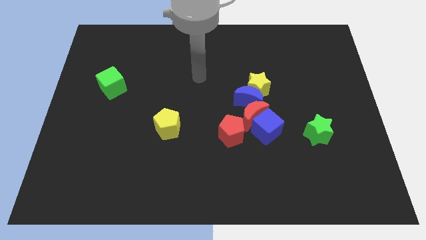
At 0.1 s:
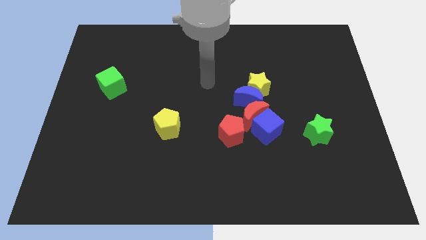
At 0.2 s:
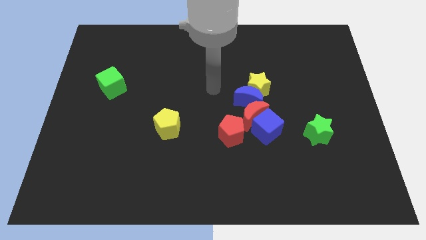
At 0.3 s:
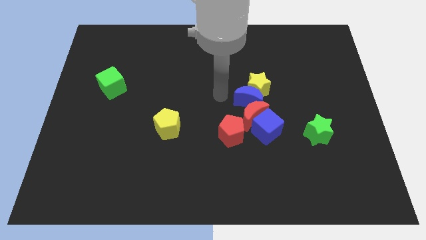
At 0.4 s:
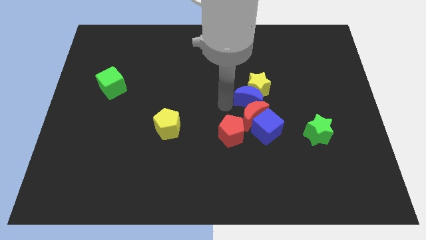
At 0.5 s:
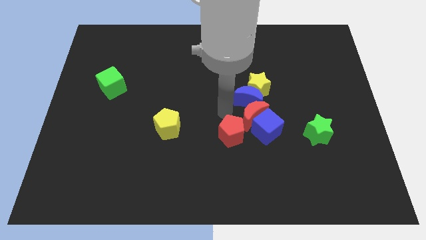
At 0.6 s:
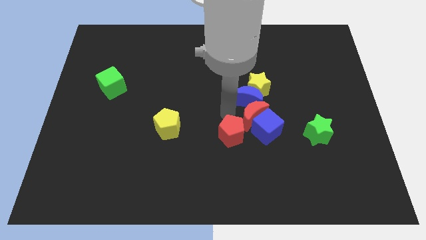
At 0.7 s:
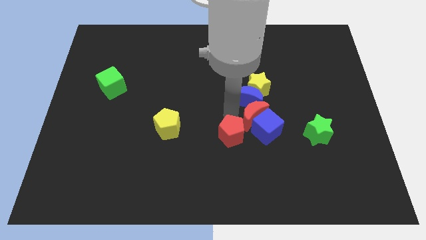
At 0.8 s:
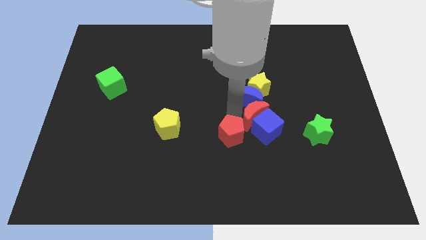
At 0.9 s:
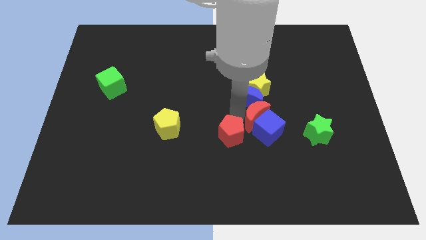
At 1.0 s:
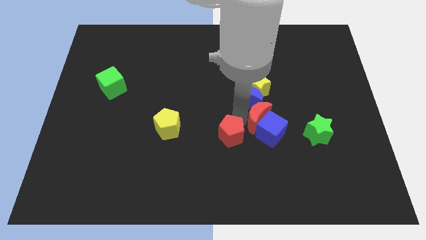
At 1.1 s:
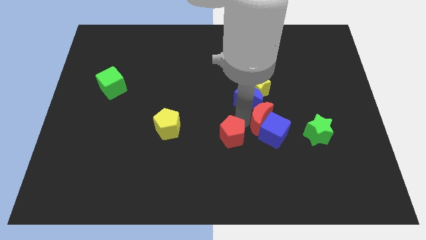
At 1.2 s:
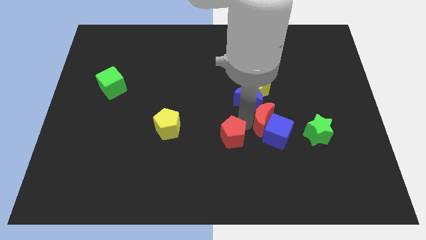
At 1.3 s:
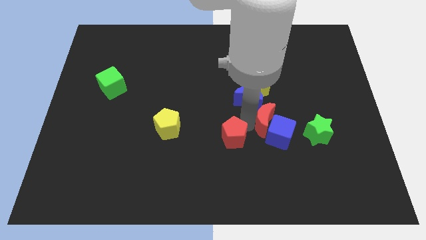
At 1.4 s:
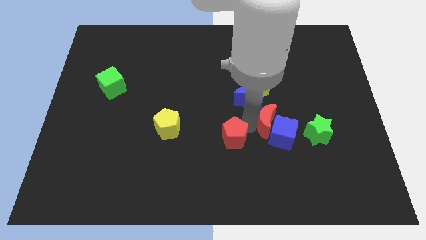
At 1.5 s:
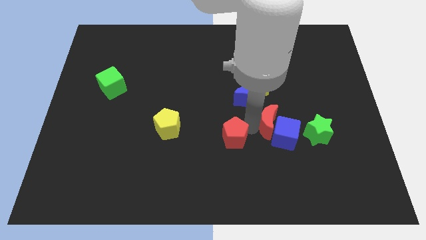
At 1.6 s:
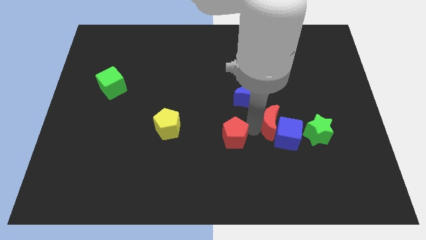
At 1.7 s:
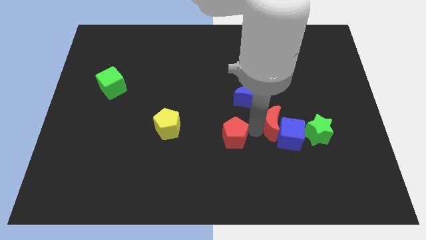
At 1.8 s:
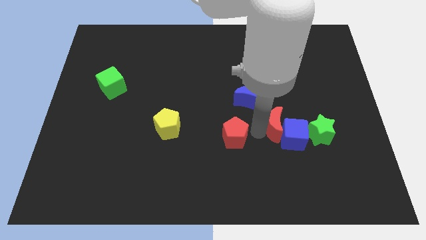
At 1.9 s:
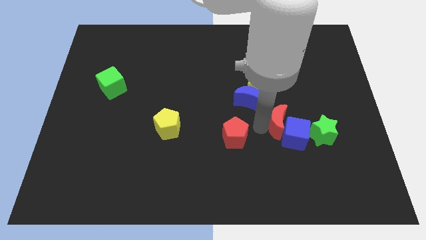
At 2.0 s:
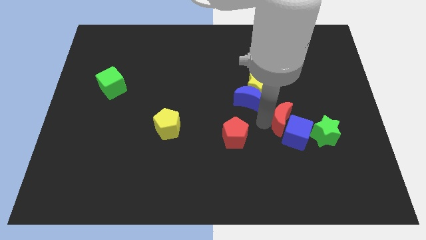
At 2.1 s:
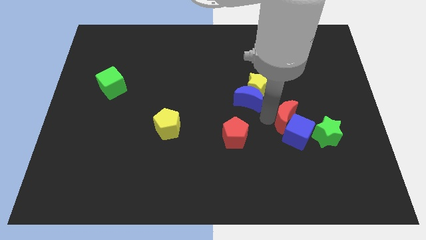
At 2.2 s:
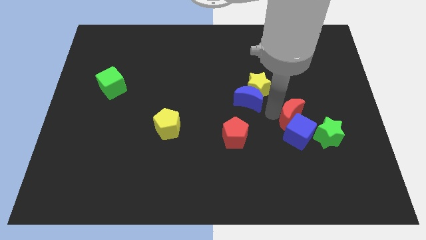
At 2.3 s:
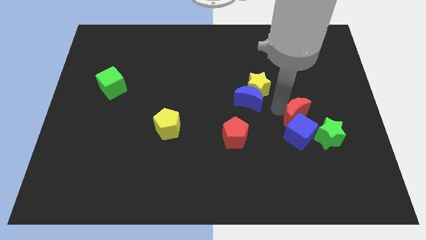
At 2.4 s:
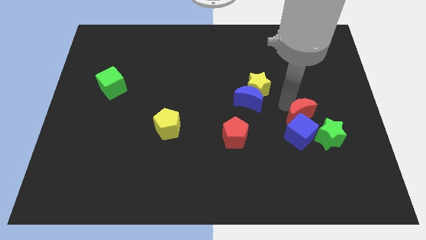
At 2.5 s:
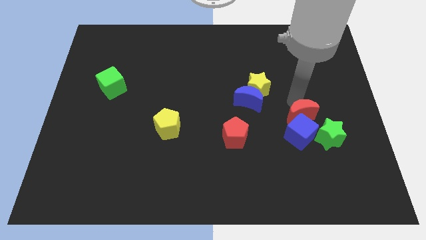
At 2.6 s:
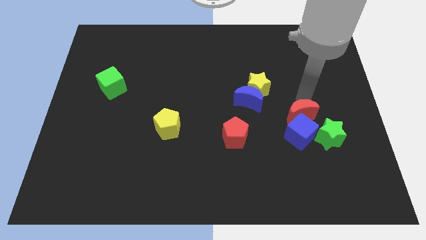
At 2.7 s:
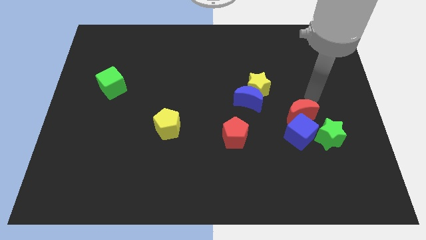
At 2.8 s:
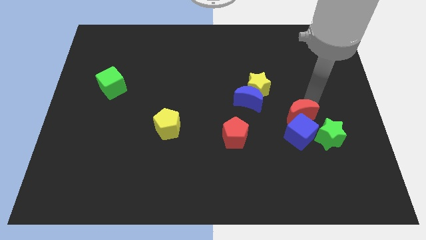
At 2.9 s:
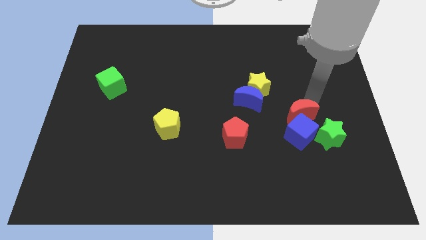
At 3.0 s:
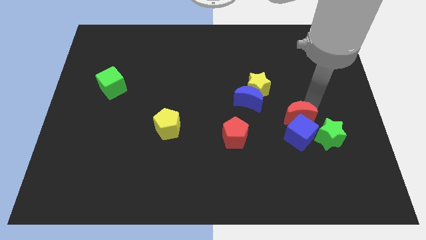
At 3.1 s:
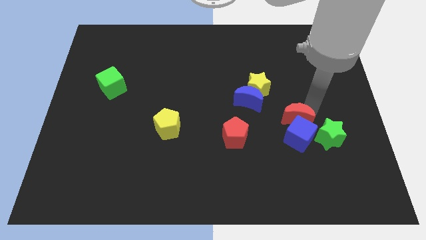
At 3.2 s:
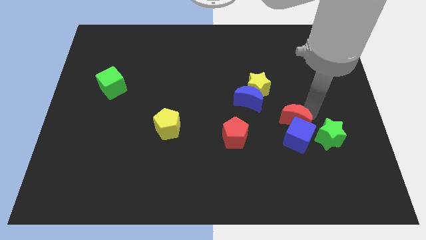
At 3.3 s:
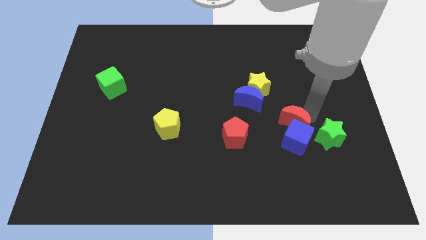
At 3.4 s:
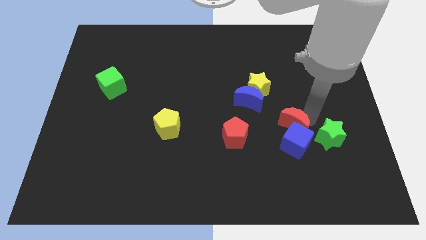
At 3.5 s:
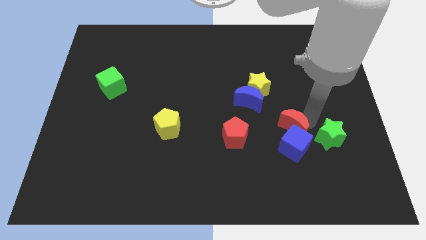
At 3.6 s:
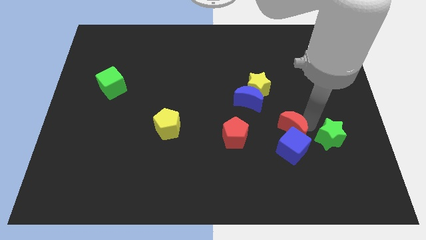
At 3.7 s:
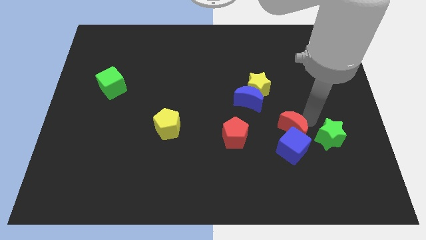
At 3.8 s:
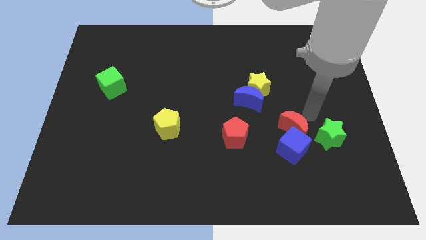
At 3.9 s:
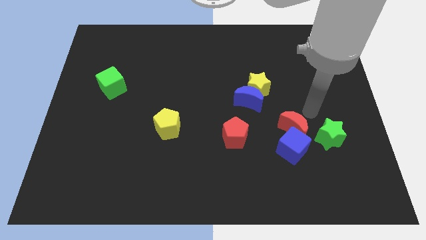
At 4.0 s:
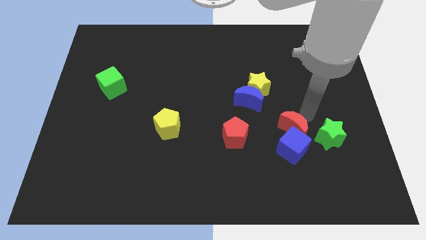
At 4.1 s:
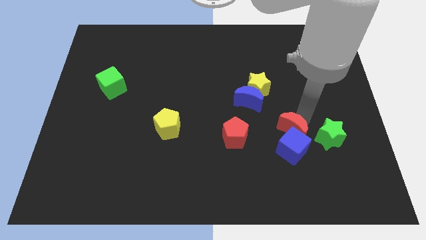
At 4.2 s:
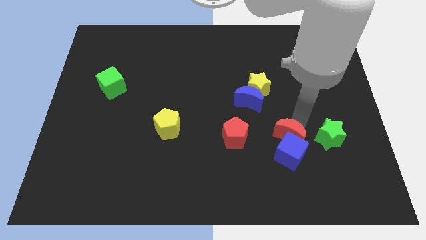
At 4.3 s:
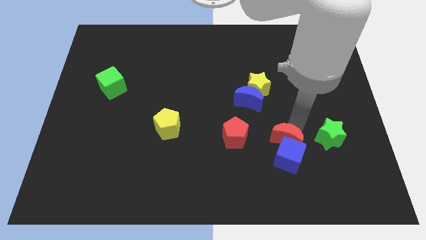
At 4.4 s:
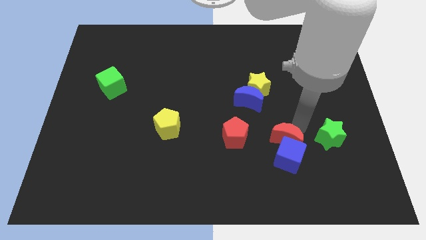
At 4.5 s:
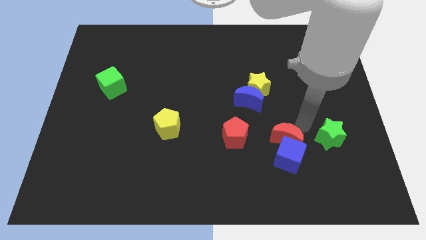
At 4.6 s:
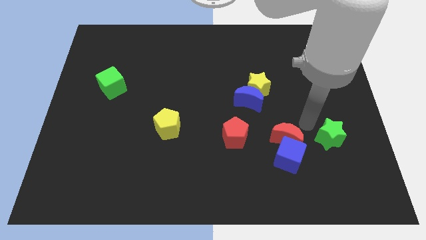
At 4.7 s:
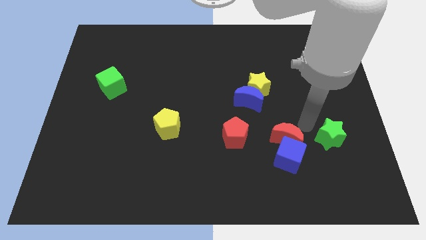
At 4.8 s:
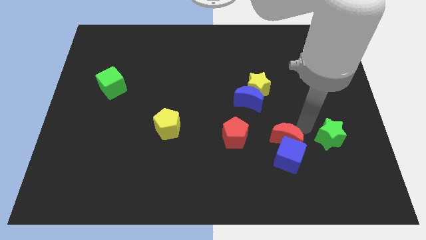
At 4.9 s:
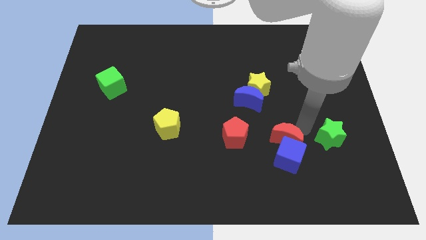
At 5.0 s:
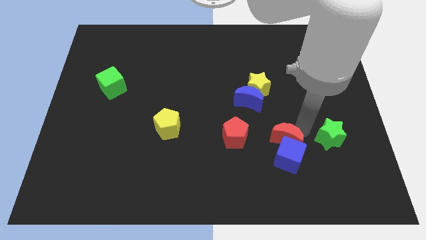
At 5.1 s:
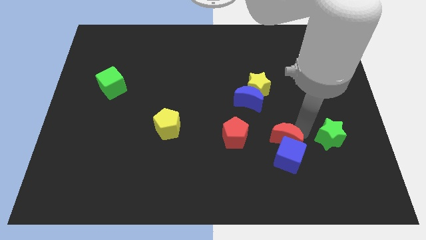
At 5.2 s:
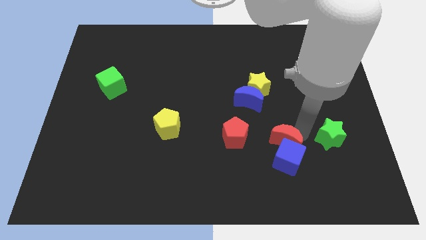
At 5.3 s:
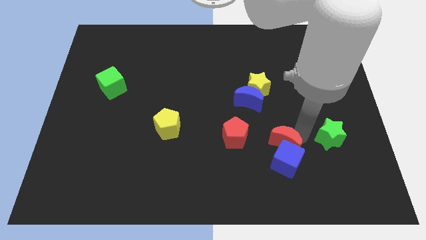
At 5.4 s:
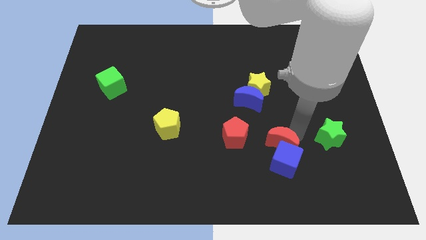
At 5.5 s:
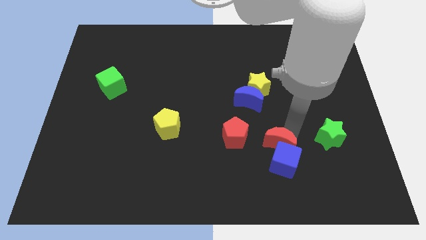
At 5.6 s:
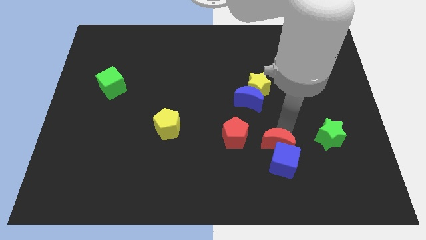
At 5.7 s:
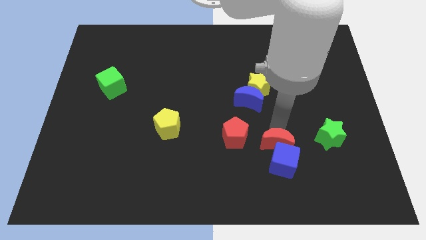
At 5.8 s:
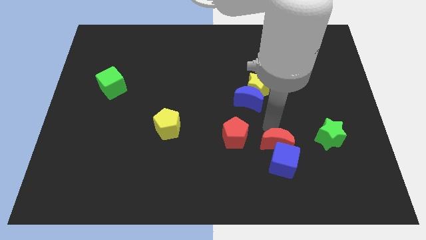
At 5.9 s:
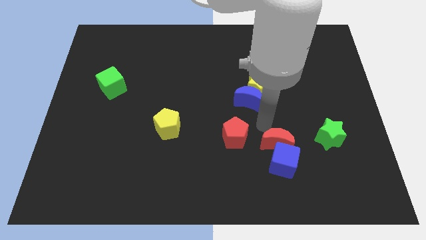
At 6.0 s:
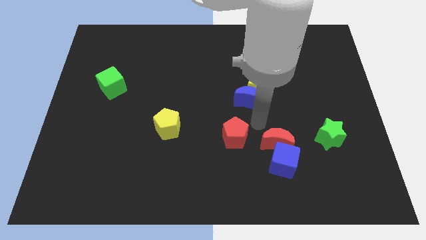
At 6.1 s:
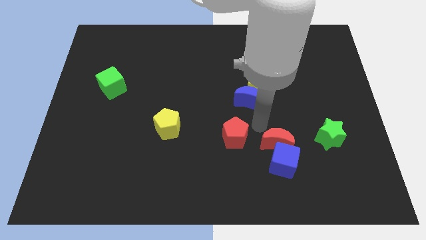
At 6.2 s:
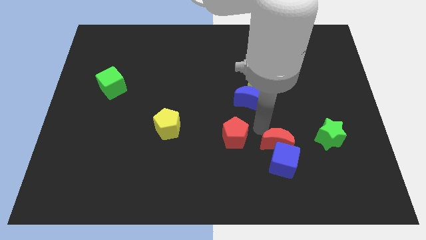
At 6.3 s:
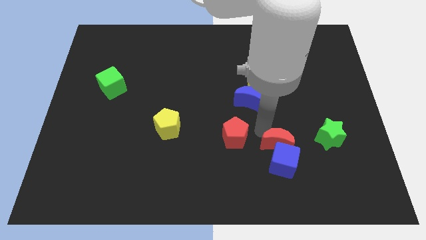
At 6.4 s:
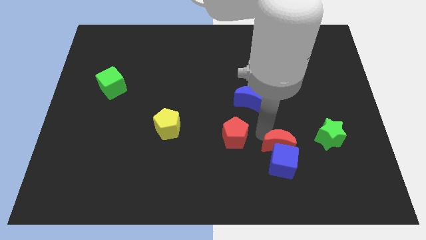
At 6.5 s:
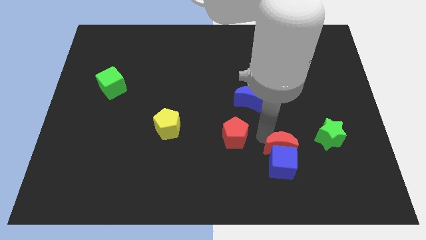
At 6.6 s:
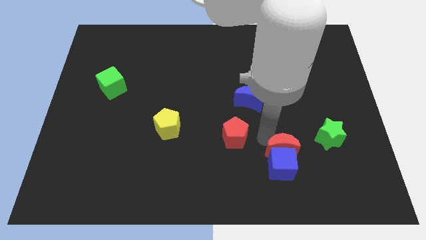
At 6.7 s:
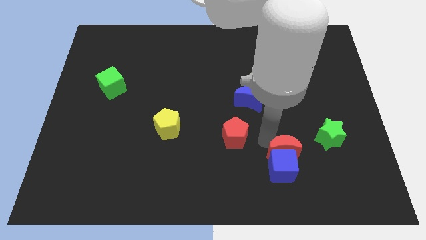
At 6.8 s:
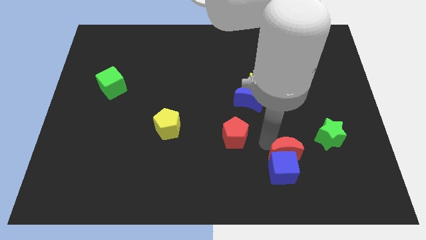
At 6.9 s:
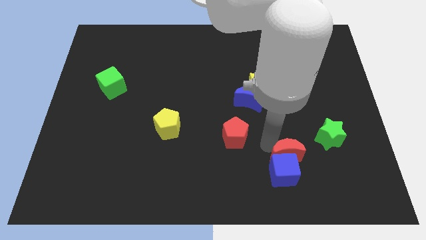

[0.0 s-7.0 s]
separate the red moon from the group

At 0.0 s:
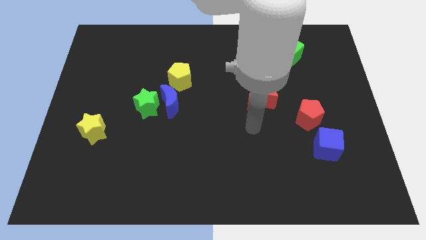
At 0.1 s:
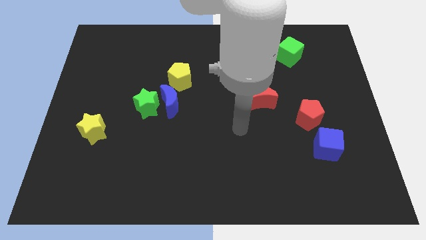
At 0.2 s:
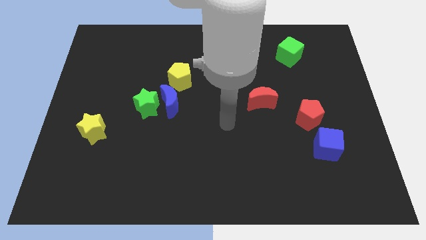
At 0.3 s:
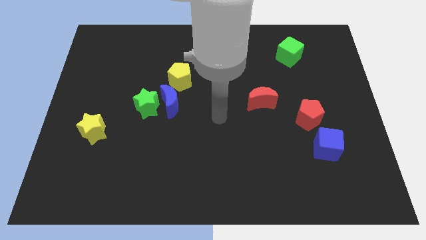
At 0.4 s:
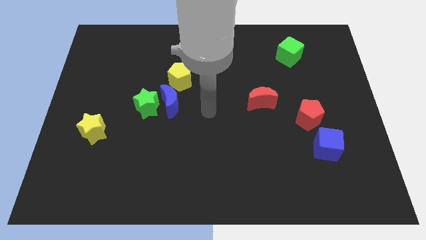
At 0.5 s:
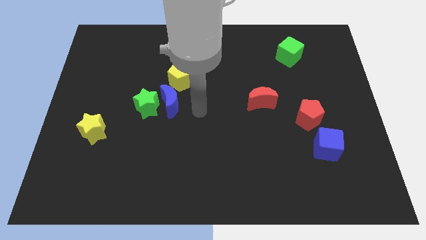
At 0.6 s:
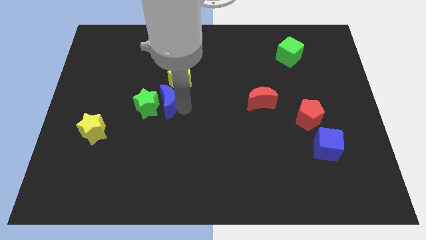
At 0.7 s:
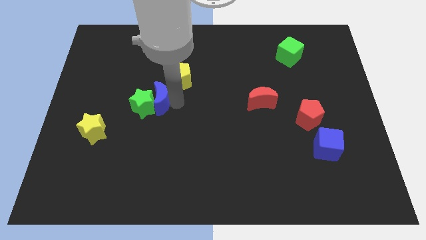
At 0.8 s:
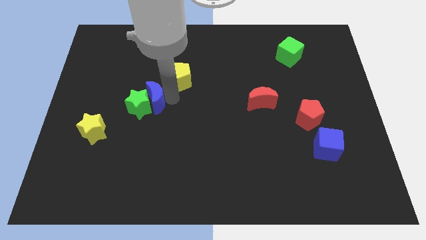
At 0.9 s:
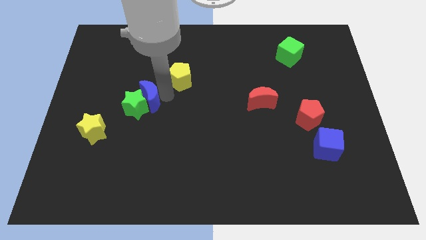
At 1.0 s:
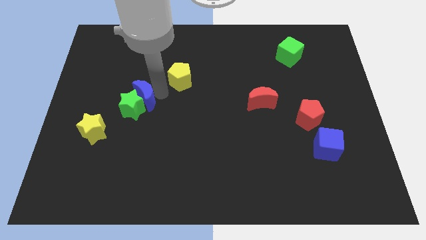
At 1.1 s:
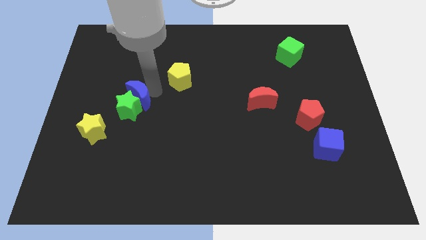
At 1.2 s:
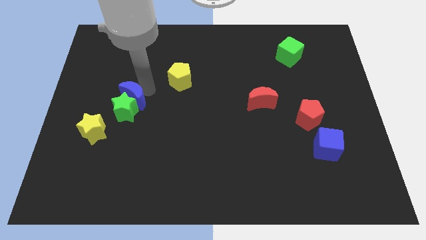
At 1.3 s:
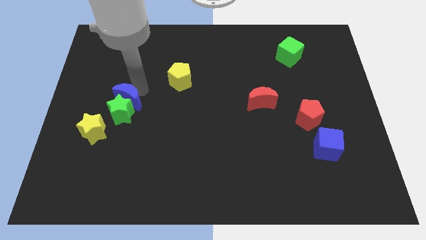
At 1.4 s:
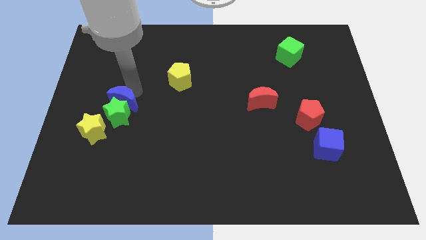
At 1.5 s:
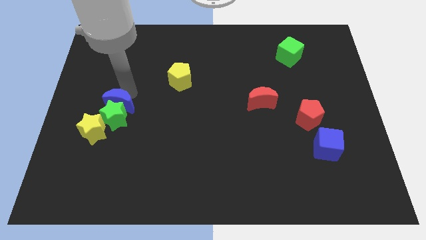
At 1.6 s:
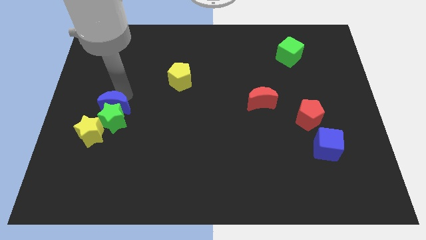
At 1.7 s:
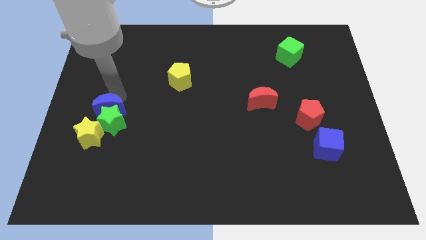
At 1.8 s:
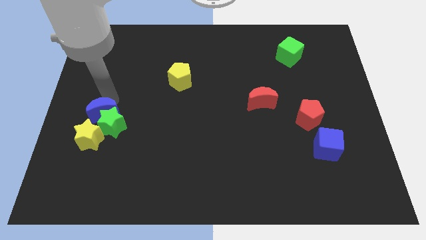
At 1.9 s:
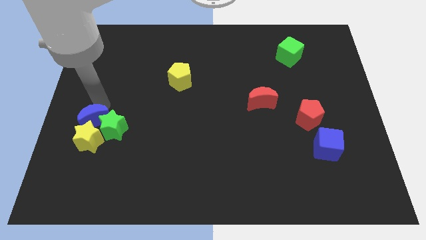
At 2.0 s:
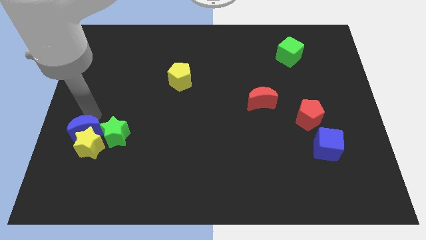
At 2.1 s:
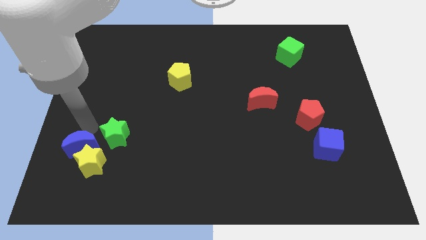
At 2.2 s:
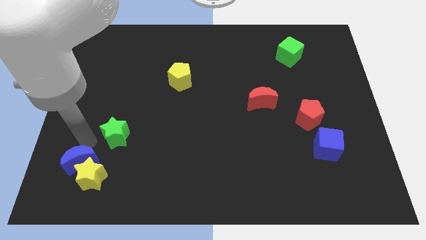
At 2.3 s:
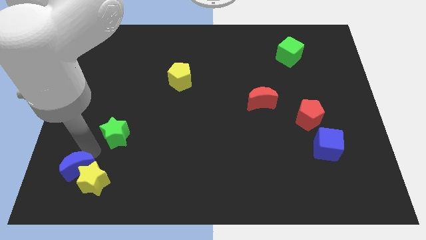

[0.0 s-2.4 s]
move the green star away from the blue moon
